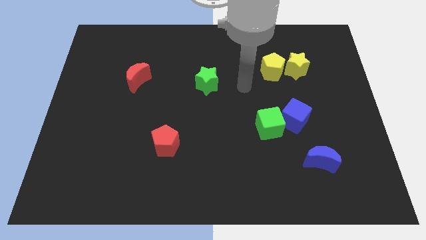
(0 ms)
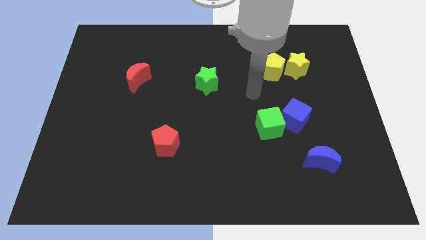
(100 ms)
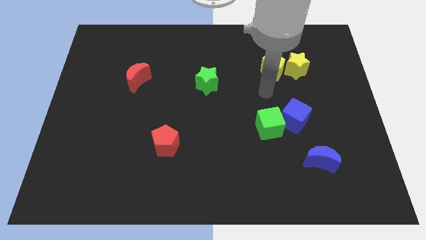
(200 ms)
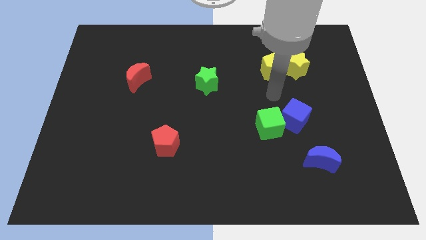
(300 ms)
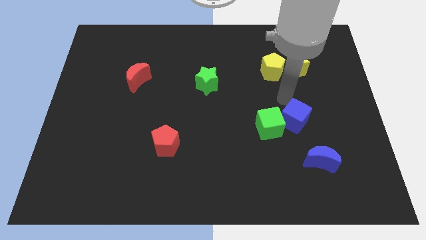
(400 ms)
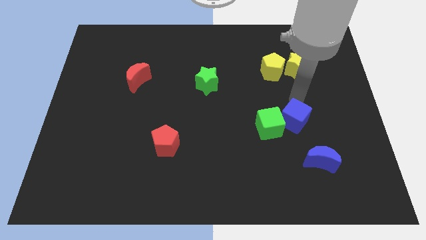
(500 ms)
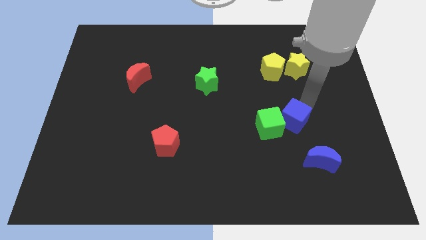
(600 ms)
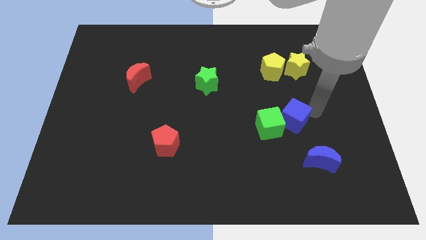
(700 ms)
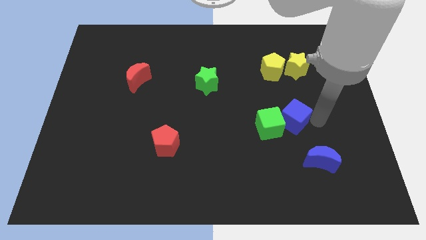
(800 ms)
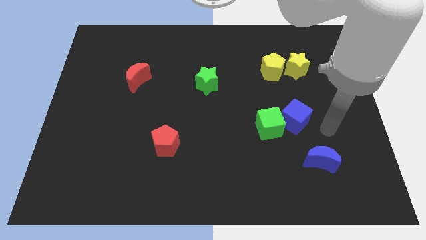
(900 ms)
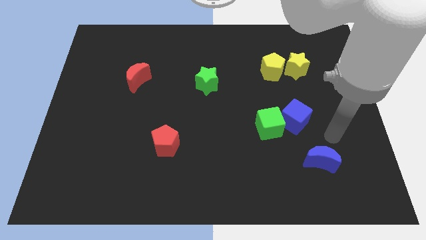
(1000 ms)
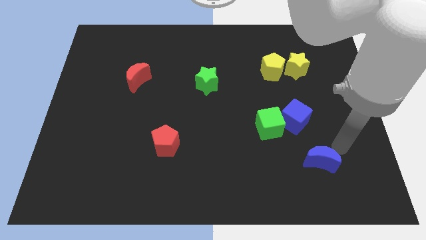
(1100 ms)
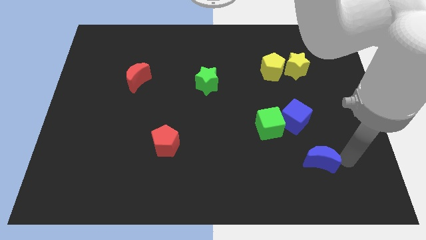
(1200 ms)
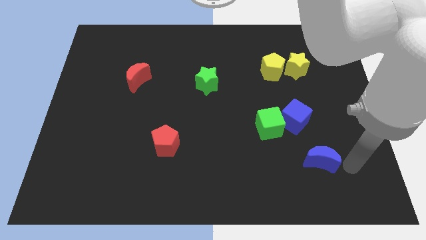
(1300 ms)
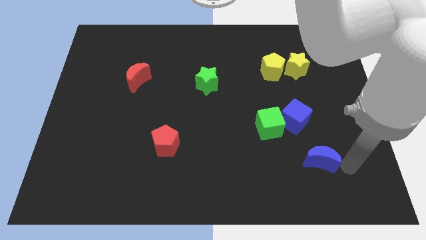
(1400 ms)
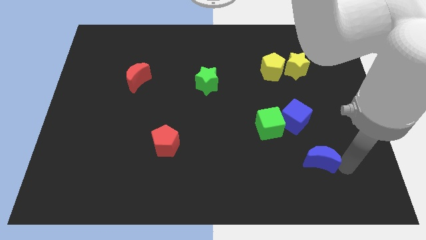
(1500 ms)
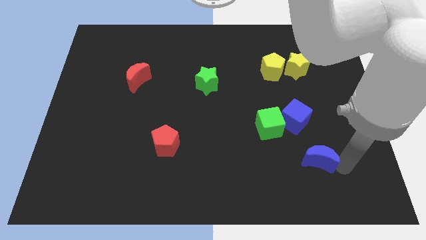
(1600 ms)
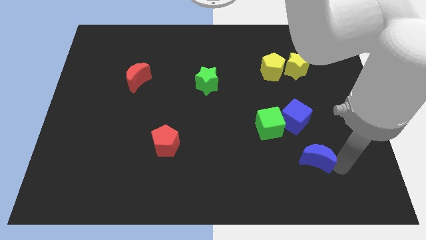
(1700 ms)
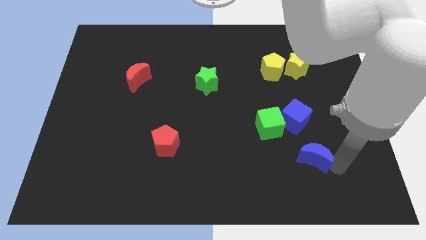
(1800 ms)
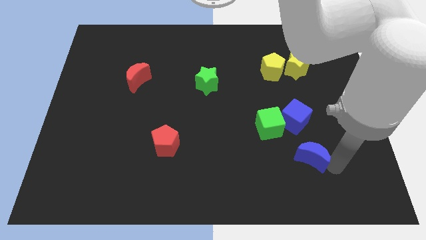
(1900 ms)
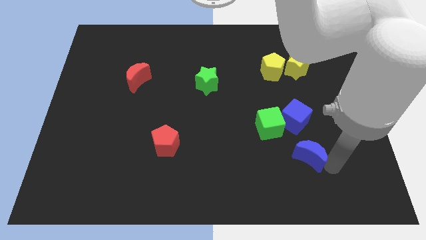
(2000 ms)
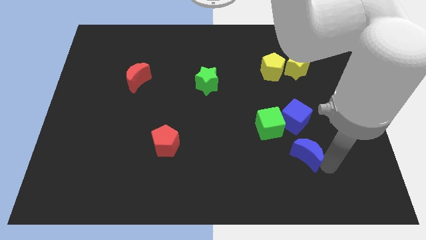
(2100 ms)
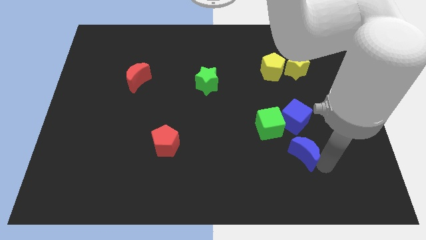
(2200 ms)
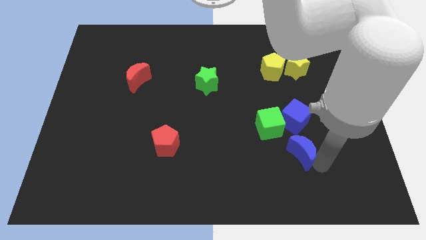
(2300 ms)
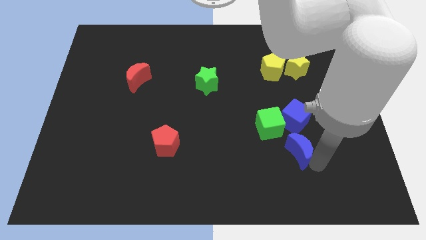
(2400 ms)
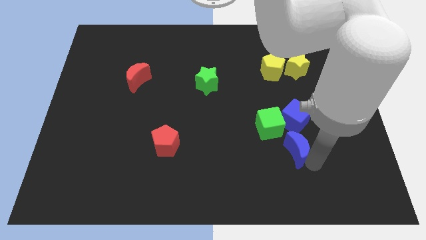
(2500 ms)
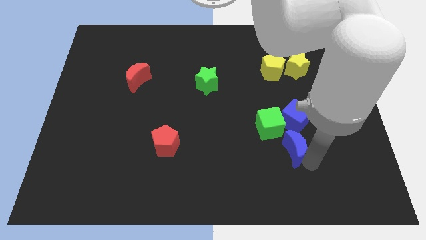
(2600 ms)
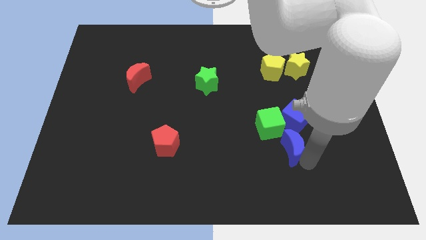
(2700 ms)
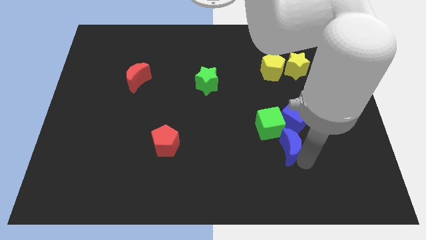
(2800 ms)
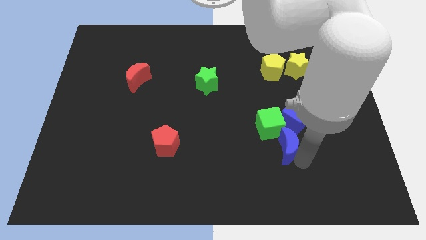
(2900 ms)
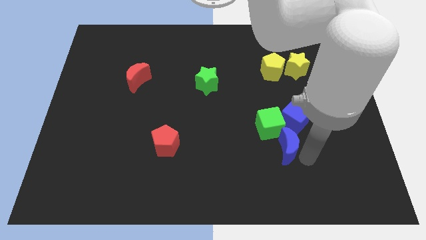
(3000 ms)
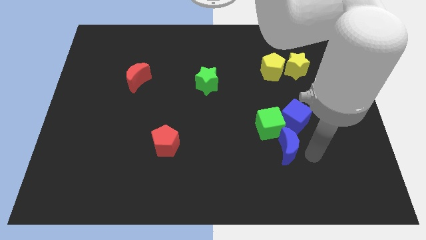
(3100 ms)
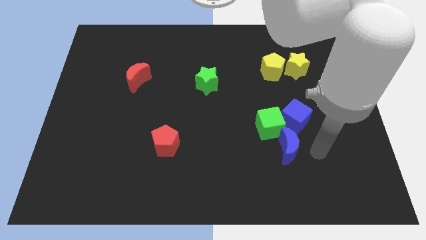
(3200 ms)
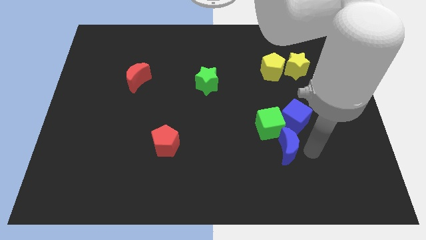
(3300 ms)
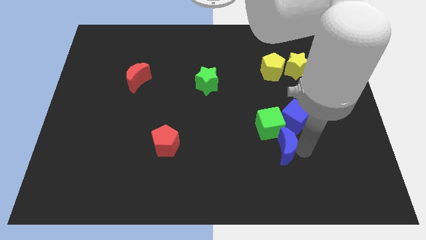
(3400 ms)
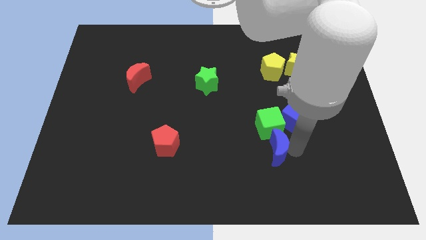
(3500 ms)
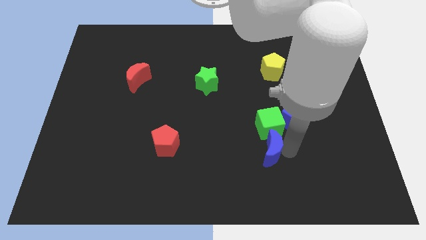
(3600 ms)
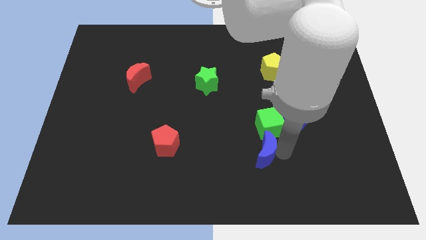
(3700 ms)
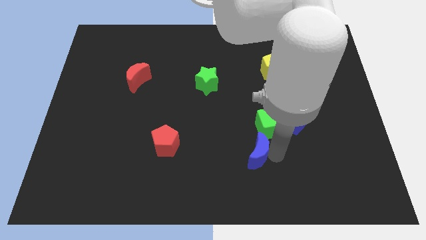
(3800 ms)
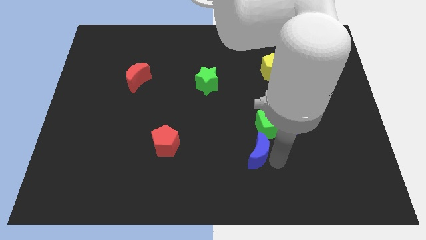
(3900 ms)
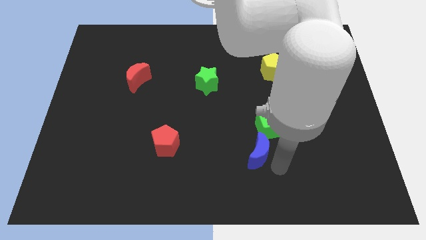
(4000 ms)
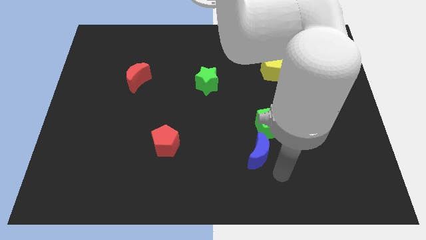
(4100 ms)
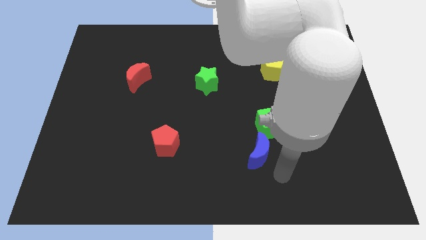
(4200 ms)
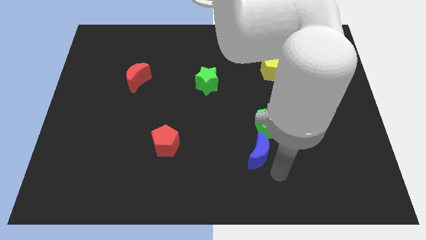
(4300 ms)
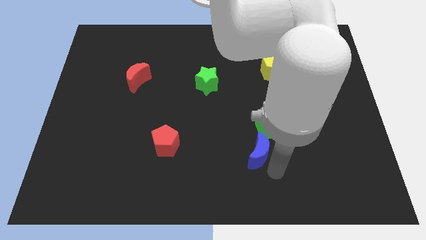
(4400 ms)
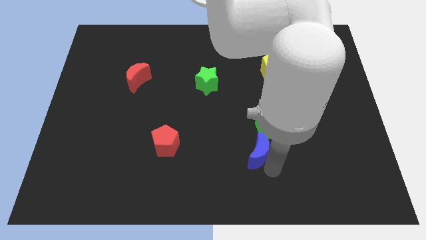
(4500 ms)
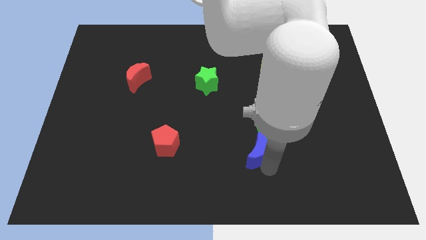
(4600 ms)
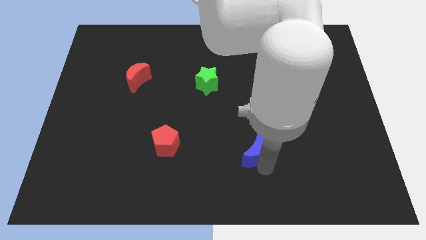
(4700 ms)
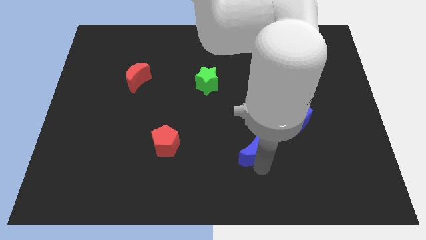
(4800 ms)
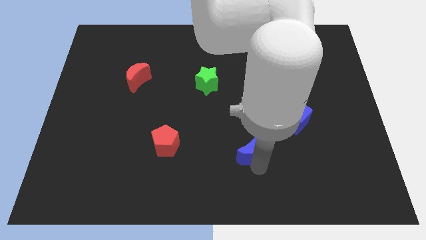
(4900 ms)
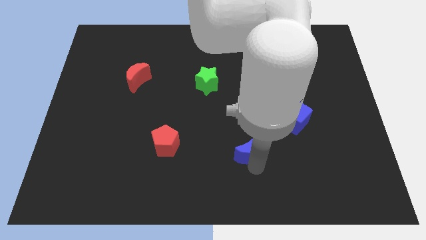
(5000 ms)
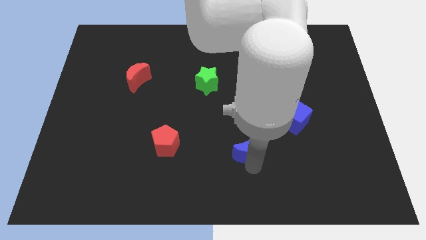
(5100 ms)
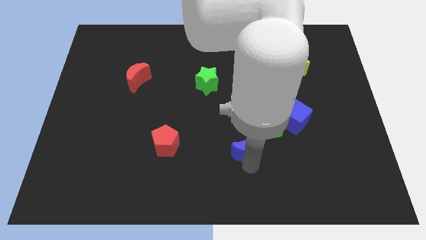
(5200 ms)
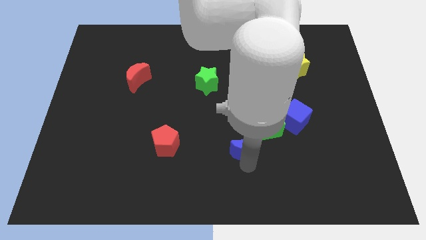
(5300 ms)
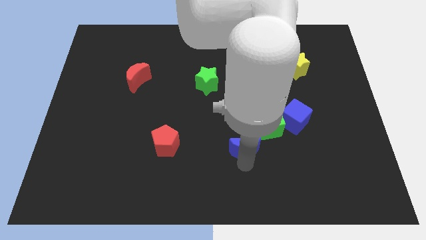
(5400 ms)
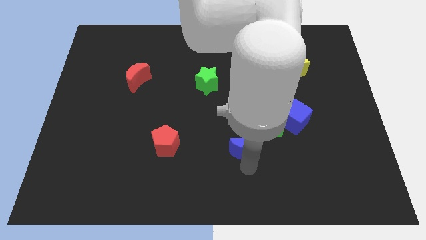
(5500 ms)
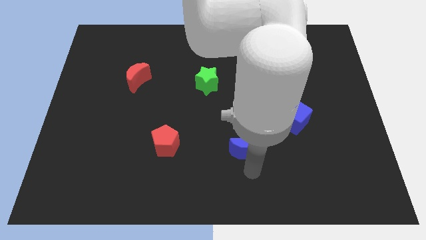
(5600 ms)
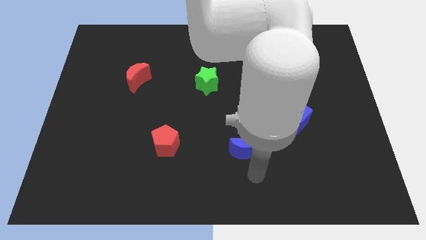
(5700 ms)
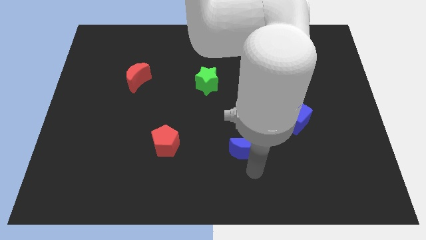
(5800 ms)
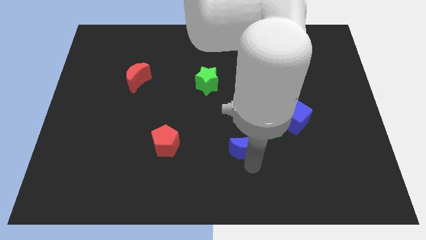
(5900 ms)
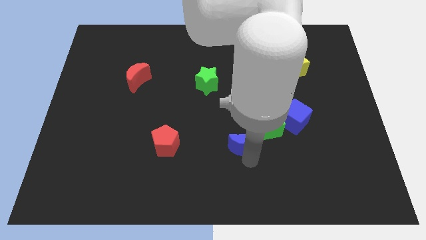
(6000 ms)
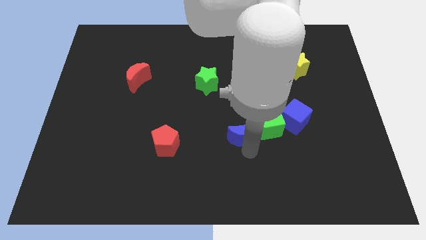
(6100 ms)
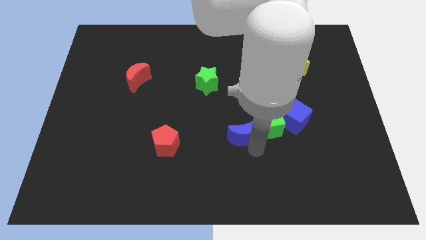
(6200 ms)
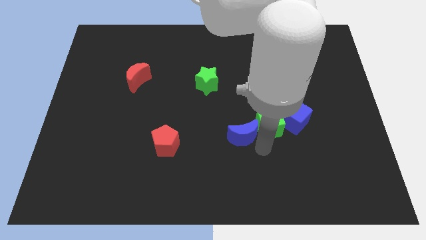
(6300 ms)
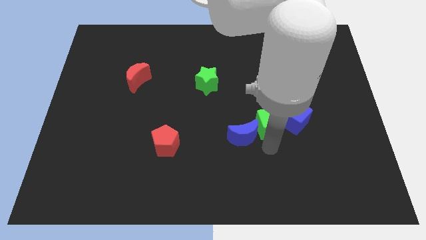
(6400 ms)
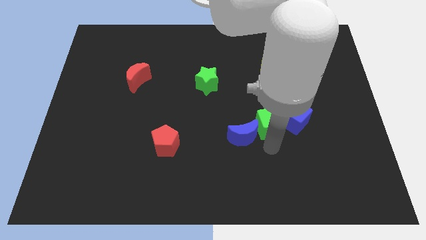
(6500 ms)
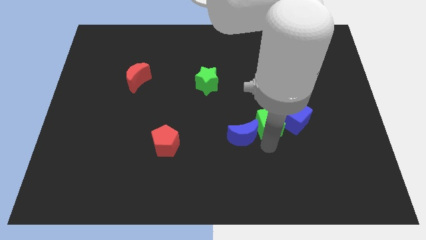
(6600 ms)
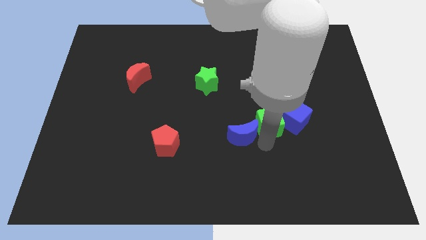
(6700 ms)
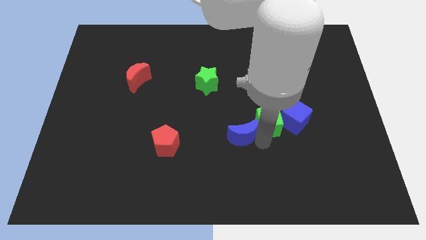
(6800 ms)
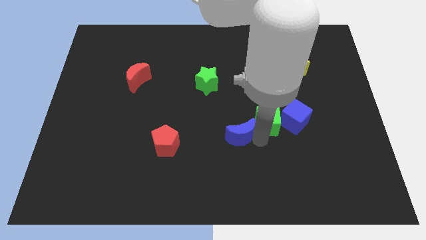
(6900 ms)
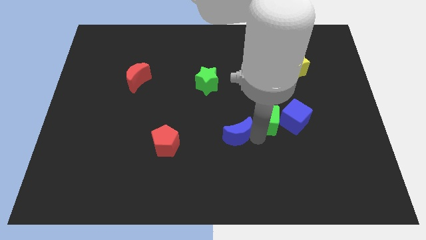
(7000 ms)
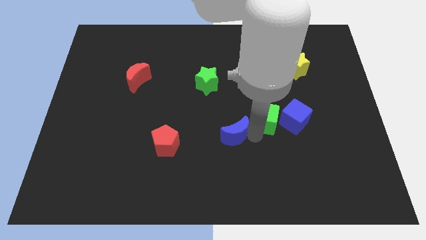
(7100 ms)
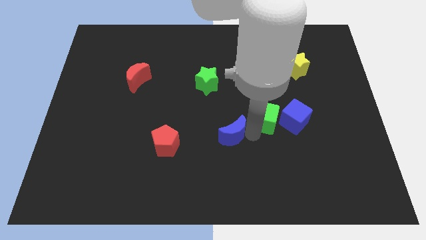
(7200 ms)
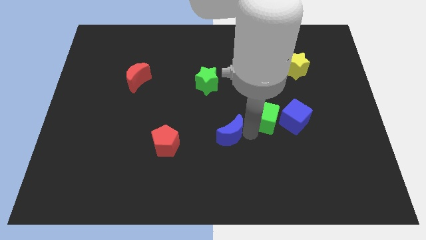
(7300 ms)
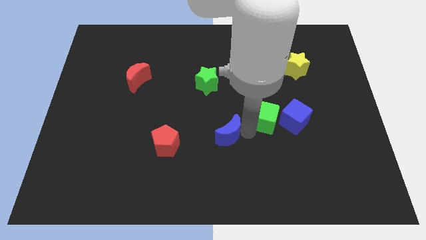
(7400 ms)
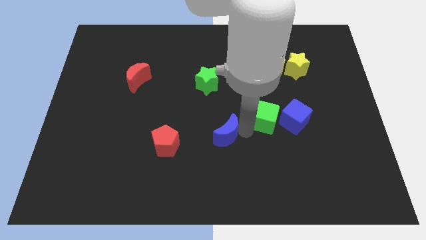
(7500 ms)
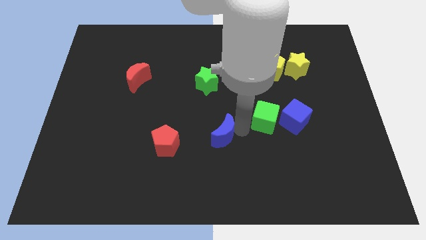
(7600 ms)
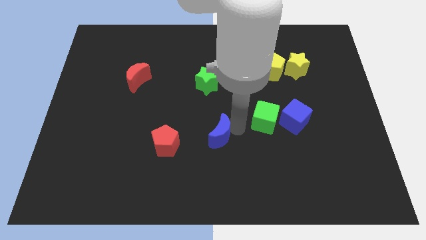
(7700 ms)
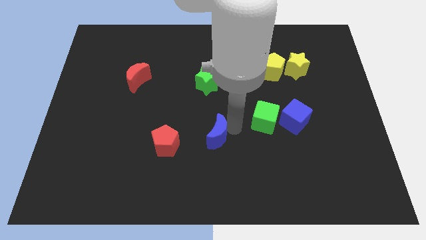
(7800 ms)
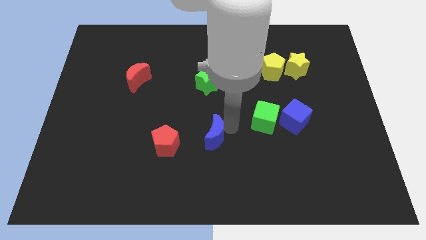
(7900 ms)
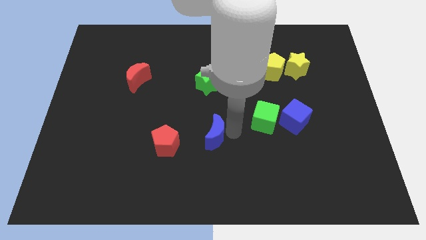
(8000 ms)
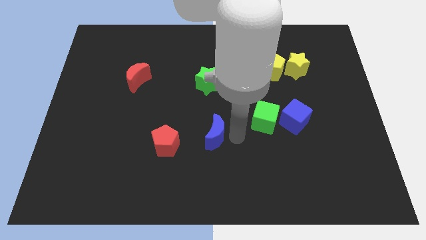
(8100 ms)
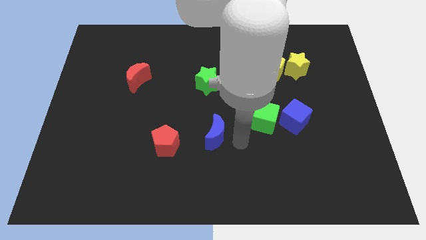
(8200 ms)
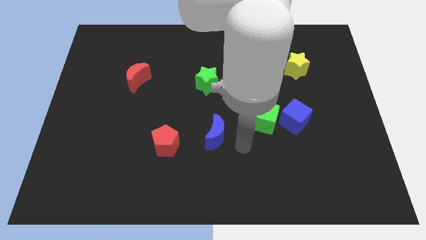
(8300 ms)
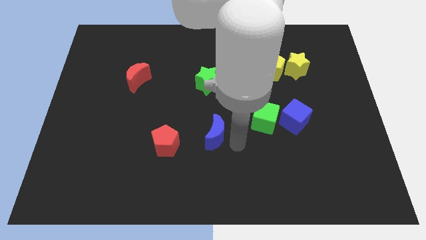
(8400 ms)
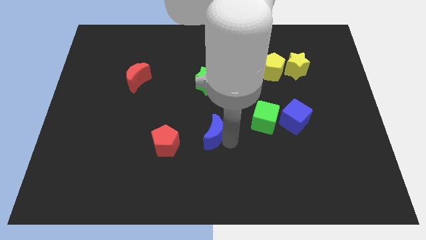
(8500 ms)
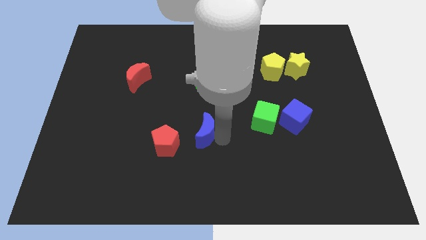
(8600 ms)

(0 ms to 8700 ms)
move the blue moon diagonally up and to the right of the red pentagon
